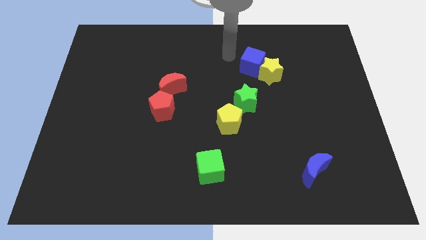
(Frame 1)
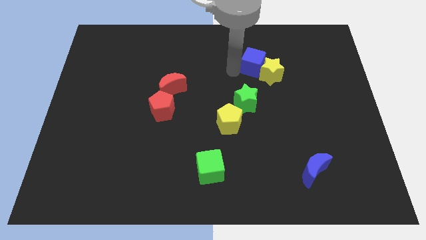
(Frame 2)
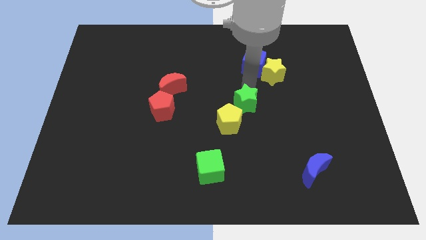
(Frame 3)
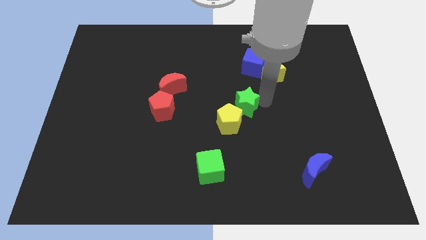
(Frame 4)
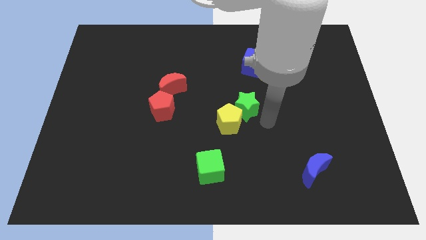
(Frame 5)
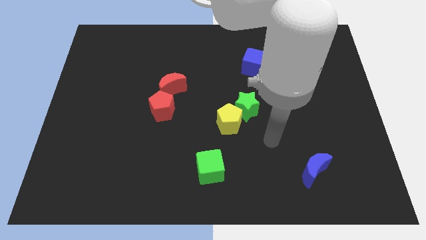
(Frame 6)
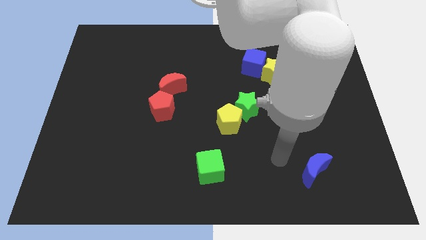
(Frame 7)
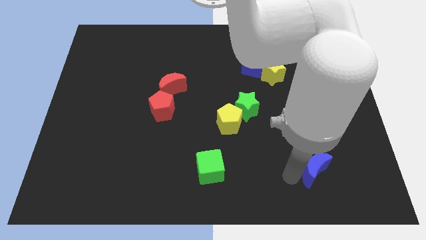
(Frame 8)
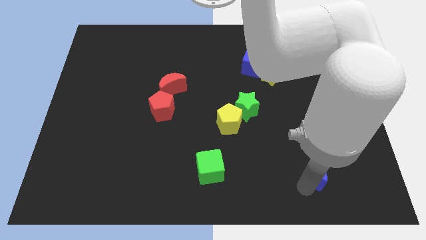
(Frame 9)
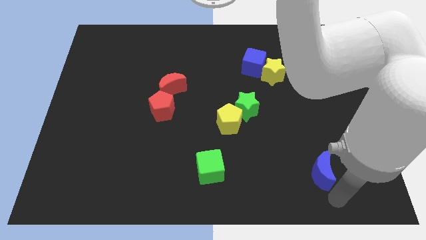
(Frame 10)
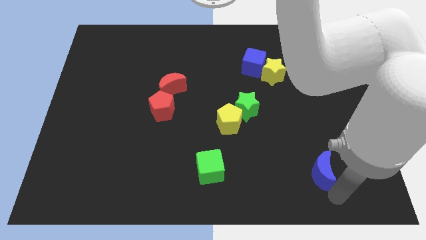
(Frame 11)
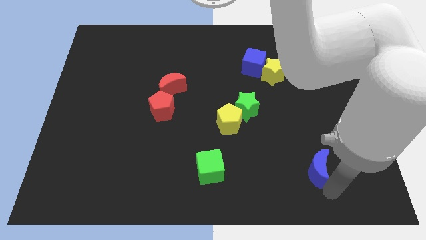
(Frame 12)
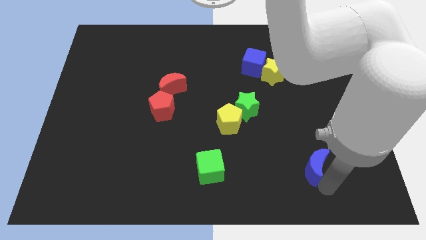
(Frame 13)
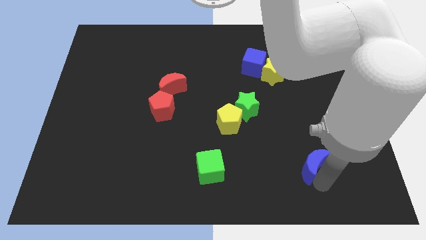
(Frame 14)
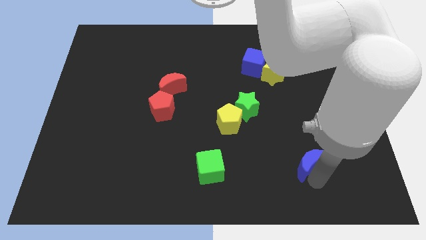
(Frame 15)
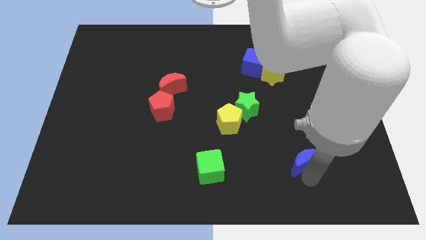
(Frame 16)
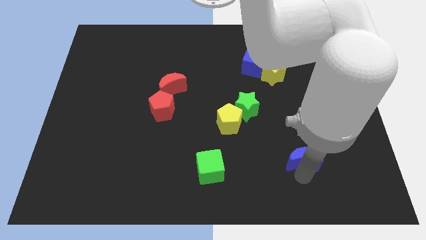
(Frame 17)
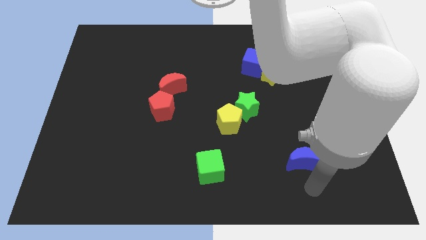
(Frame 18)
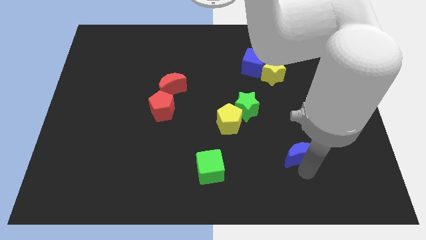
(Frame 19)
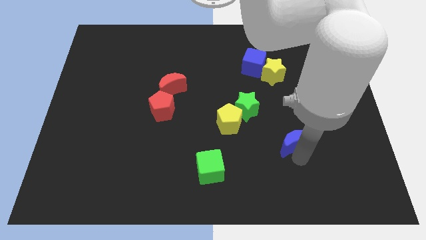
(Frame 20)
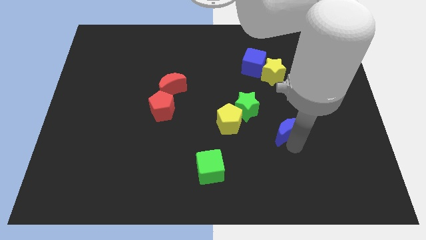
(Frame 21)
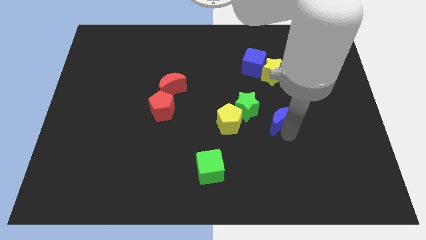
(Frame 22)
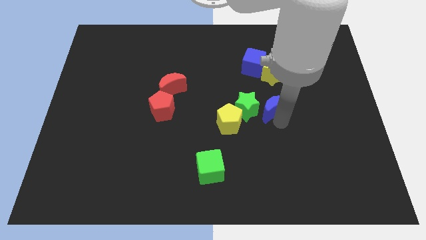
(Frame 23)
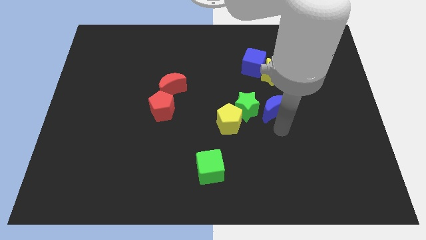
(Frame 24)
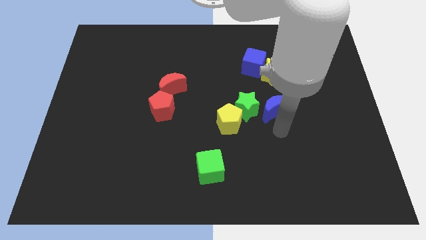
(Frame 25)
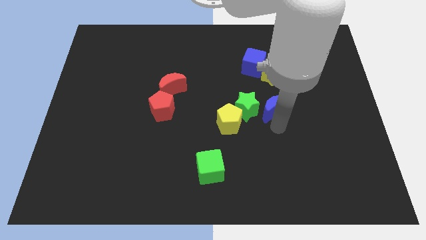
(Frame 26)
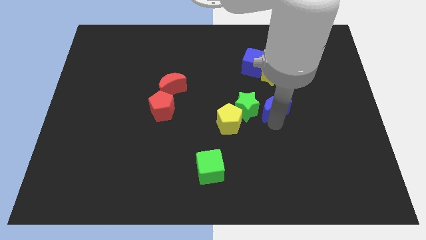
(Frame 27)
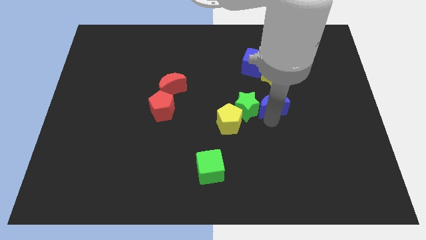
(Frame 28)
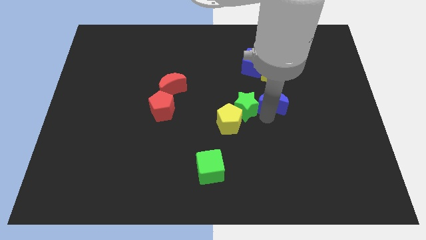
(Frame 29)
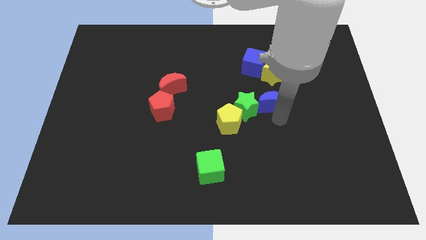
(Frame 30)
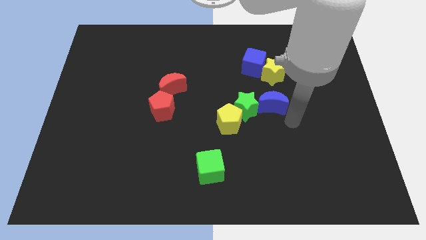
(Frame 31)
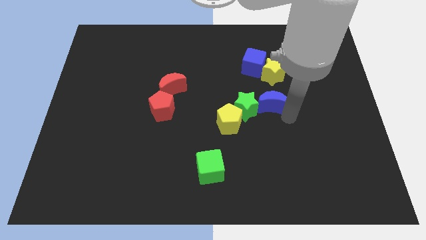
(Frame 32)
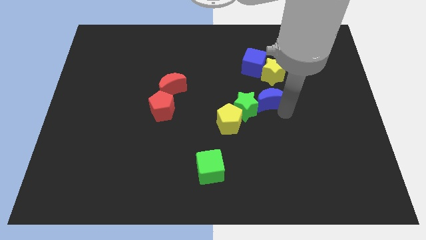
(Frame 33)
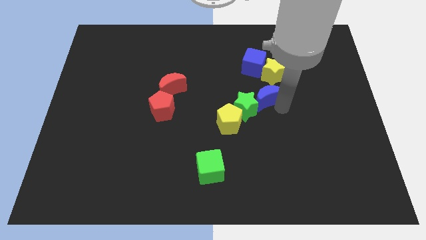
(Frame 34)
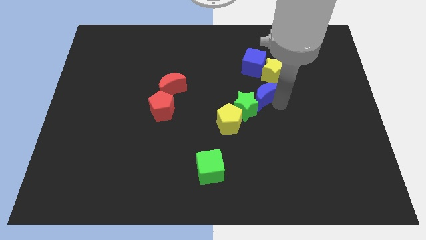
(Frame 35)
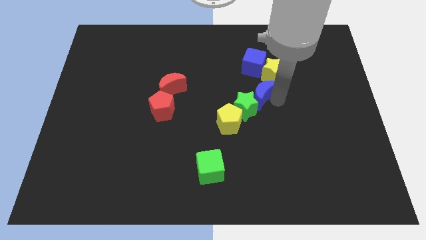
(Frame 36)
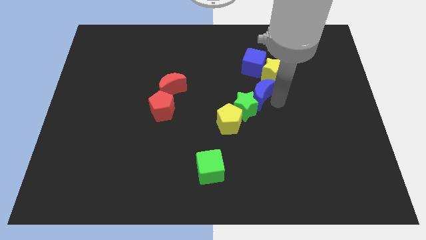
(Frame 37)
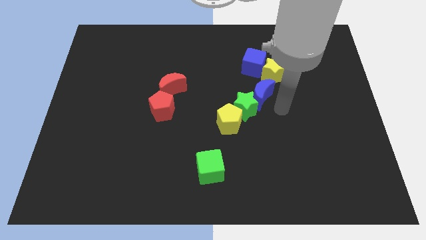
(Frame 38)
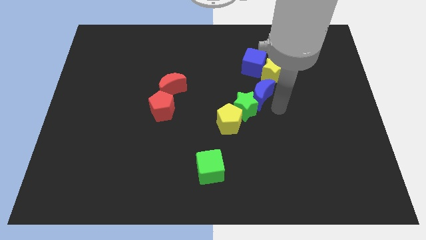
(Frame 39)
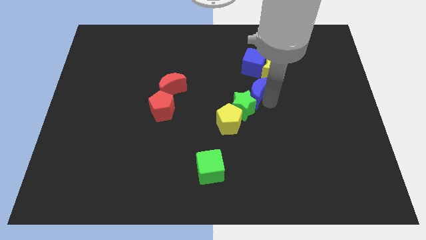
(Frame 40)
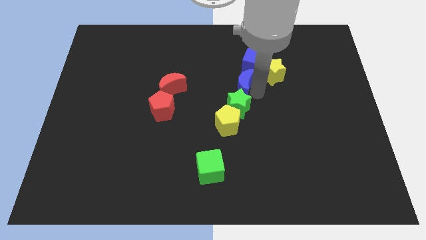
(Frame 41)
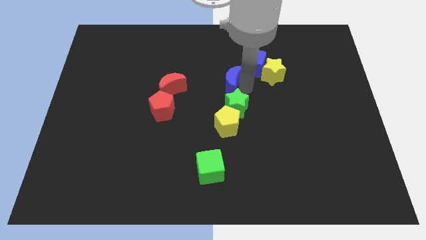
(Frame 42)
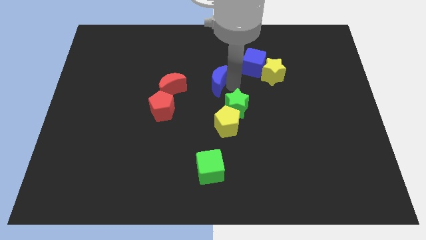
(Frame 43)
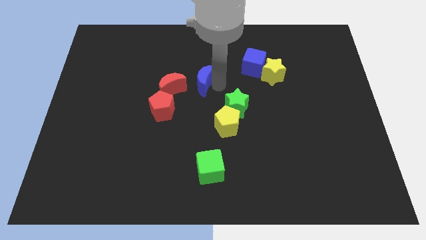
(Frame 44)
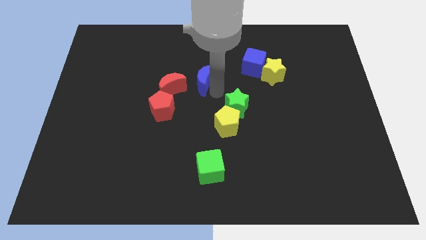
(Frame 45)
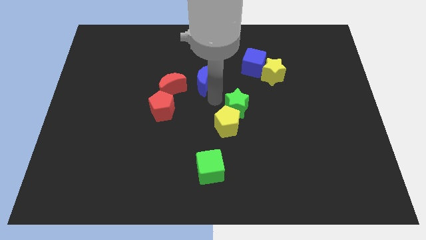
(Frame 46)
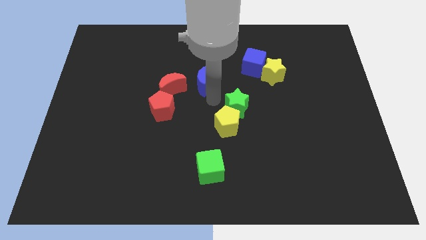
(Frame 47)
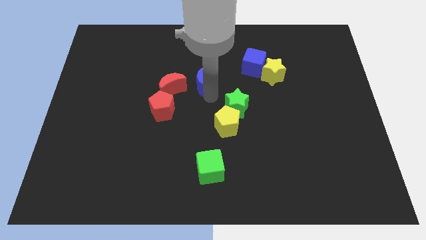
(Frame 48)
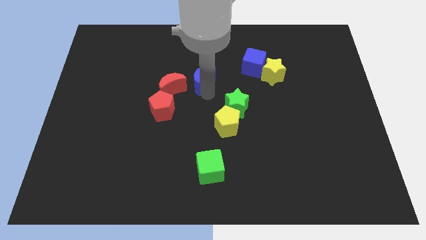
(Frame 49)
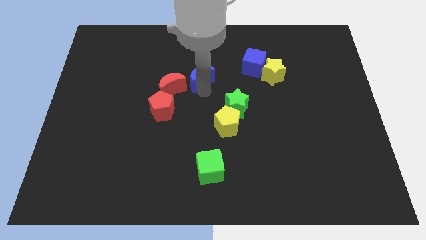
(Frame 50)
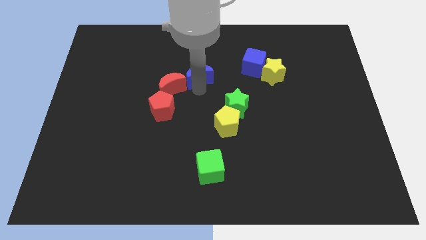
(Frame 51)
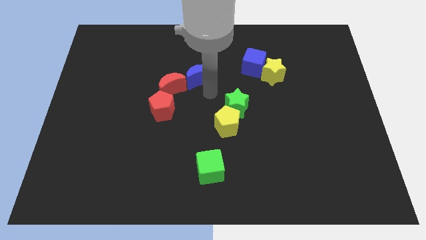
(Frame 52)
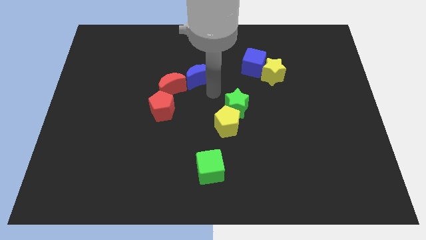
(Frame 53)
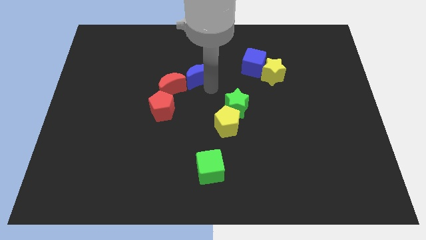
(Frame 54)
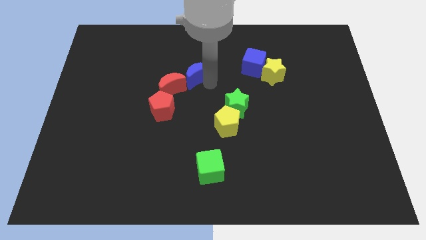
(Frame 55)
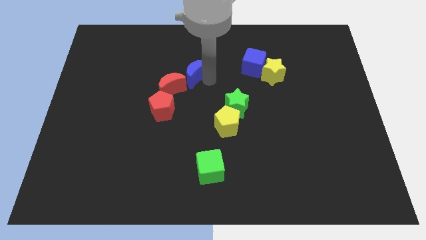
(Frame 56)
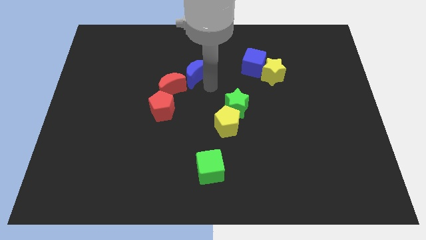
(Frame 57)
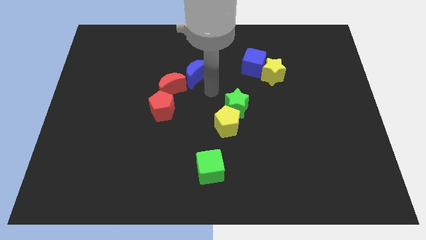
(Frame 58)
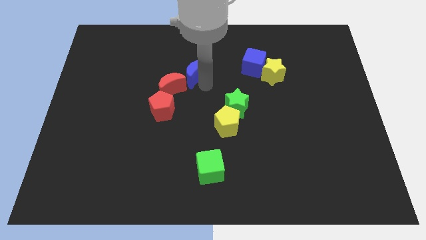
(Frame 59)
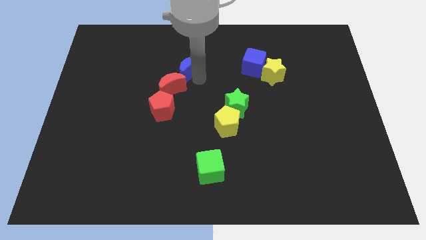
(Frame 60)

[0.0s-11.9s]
put the blue moon to the top side of the red moon

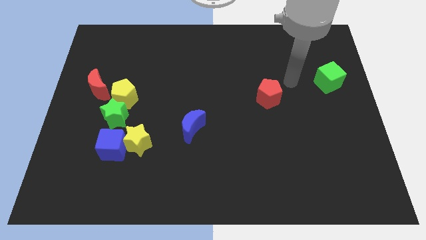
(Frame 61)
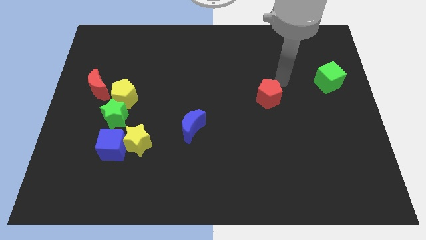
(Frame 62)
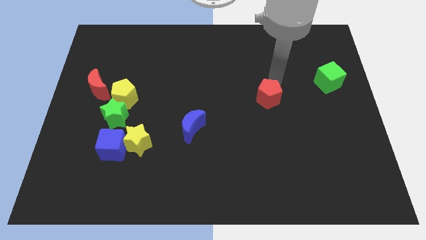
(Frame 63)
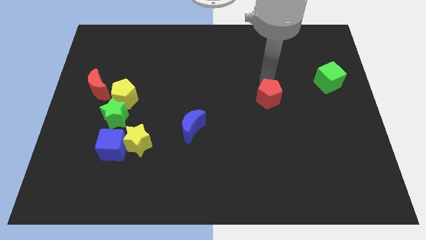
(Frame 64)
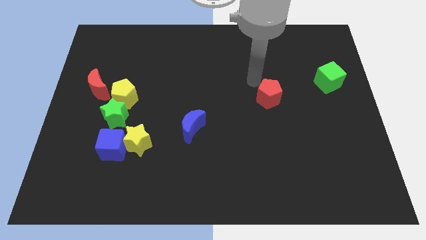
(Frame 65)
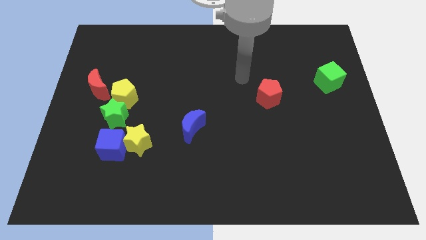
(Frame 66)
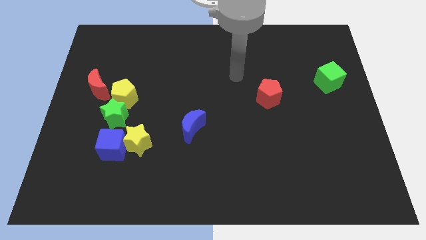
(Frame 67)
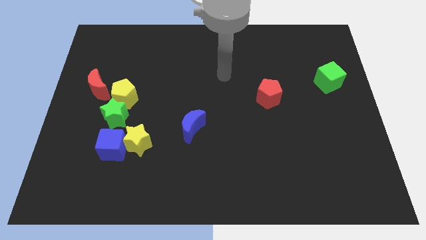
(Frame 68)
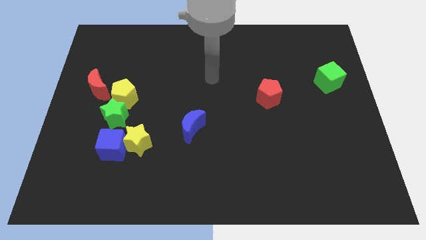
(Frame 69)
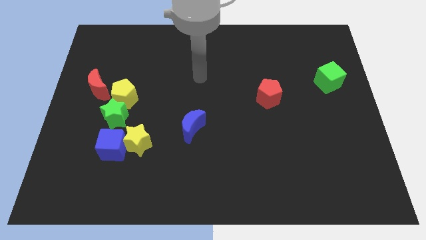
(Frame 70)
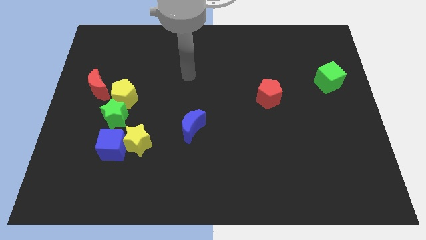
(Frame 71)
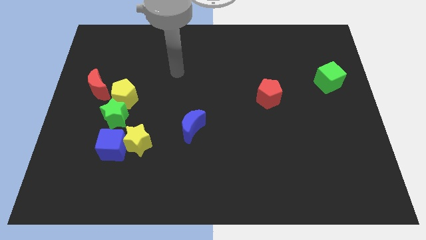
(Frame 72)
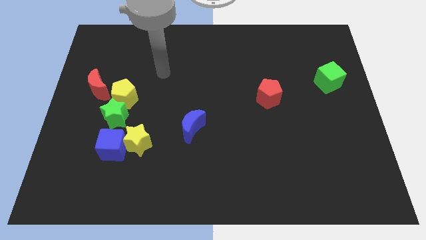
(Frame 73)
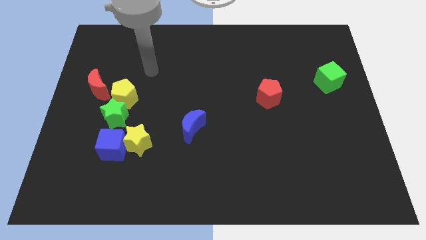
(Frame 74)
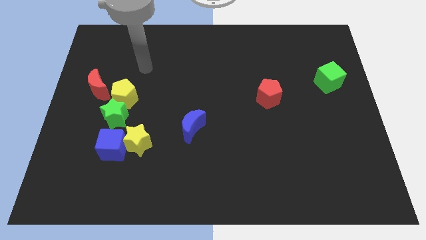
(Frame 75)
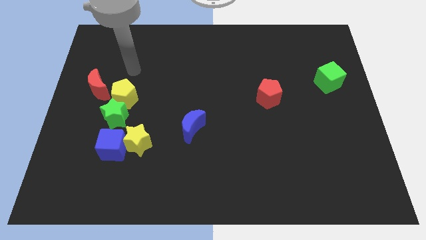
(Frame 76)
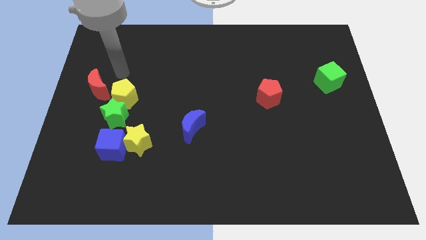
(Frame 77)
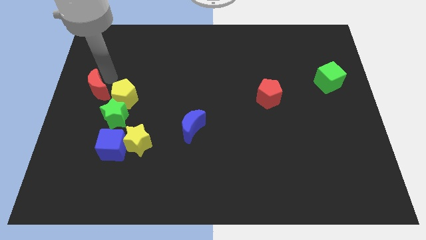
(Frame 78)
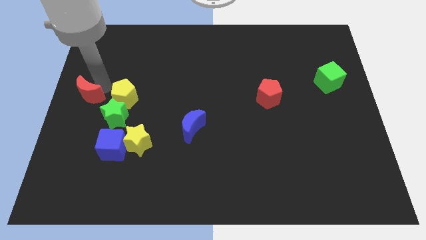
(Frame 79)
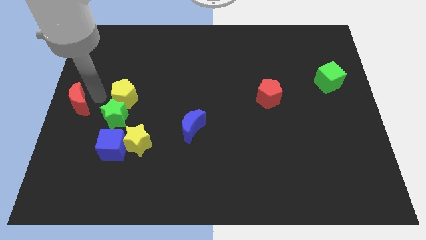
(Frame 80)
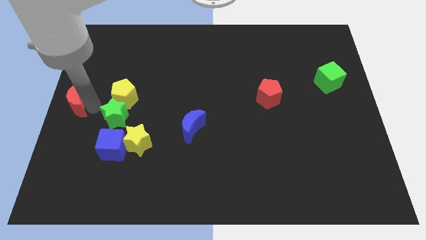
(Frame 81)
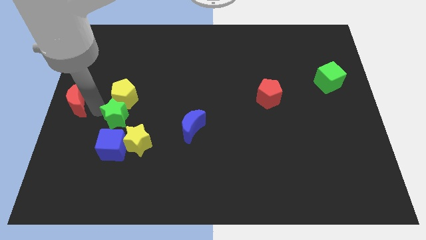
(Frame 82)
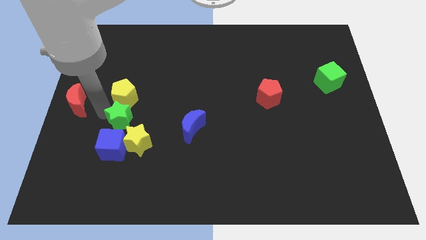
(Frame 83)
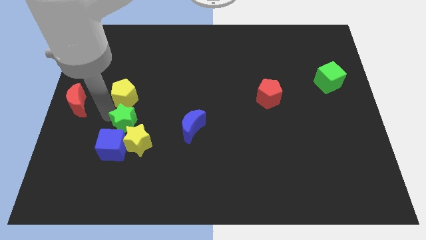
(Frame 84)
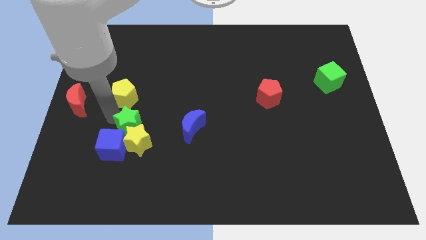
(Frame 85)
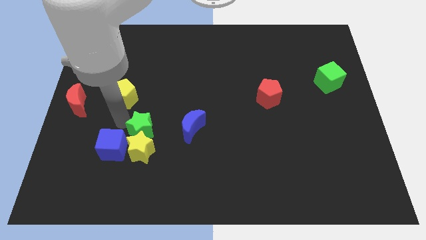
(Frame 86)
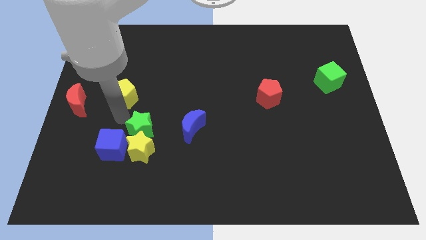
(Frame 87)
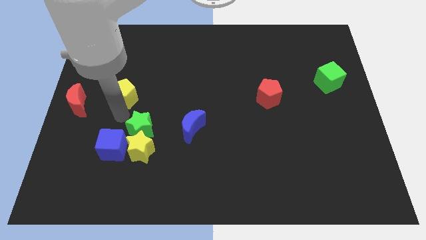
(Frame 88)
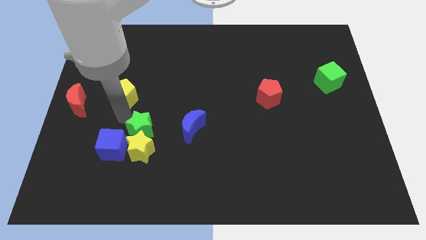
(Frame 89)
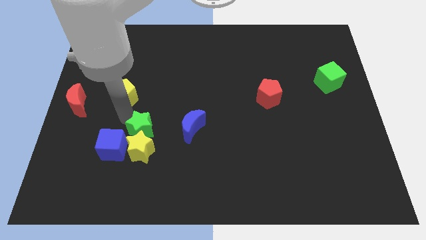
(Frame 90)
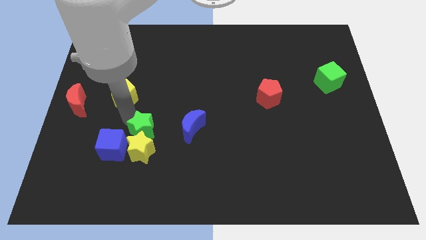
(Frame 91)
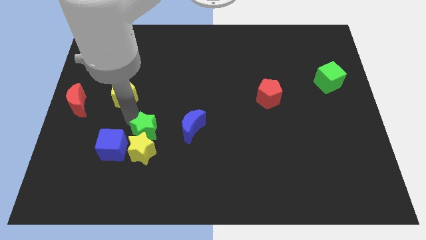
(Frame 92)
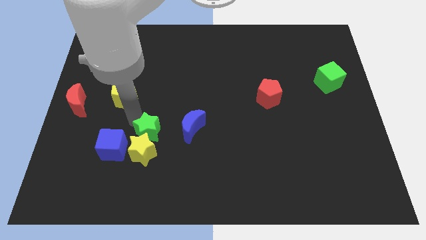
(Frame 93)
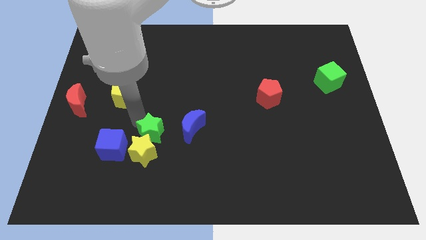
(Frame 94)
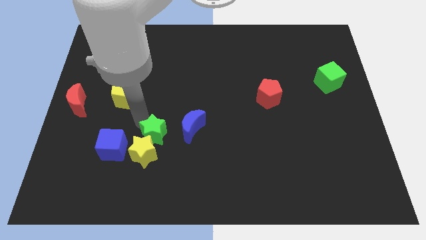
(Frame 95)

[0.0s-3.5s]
move the green star to the bottom left side of the blue moon
